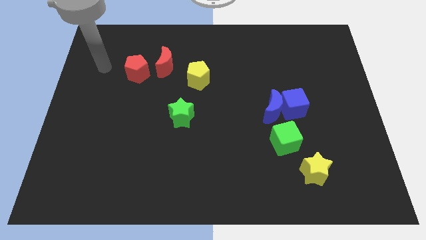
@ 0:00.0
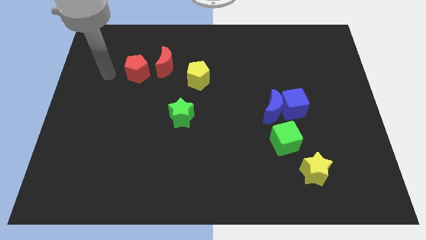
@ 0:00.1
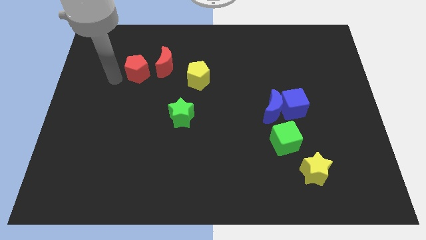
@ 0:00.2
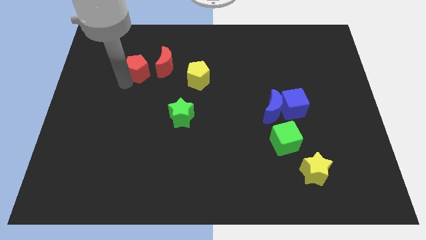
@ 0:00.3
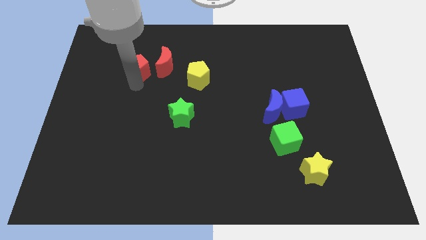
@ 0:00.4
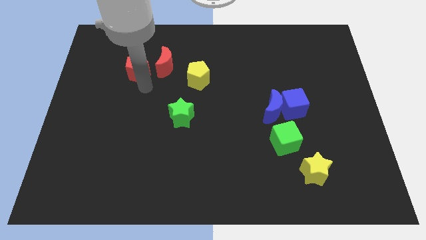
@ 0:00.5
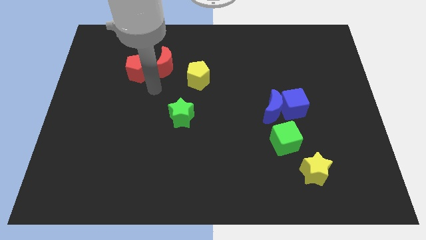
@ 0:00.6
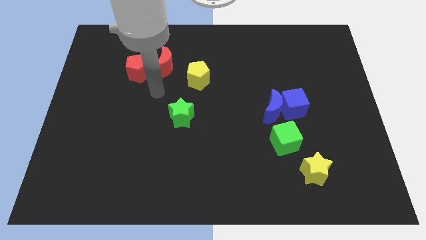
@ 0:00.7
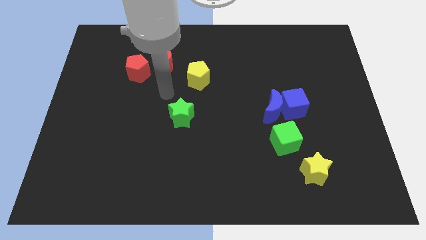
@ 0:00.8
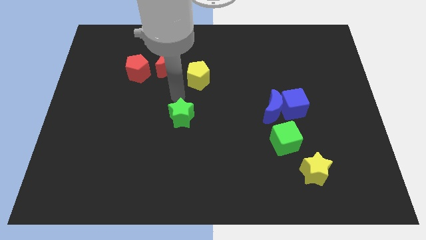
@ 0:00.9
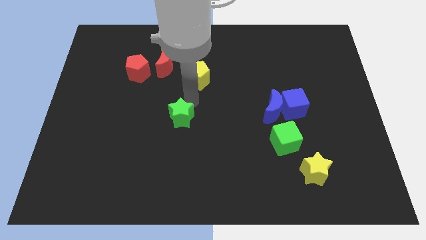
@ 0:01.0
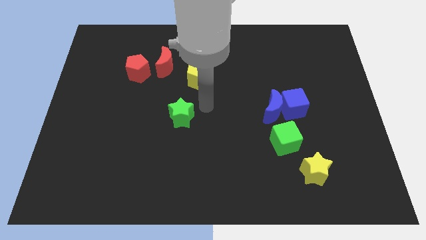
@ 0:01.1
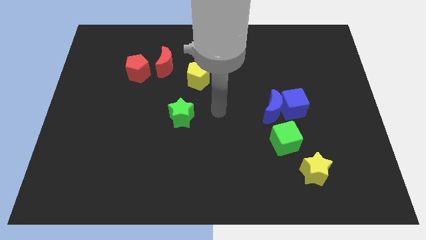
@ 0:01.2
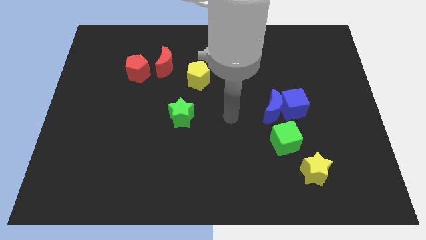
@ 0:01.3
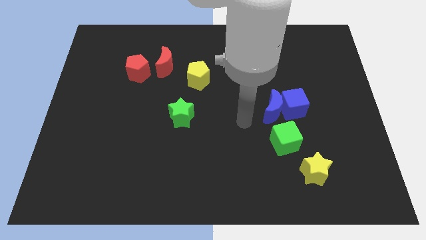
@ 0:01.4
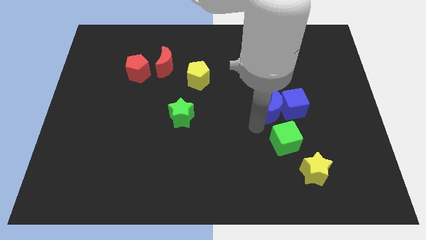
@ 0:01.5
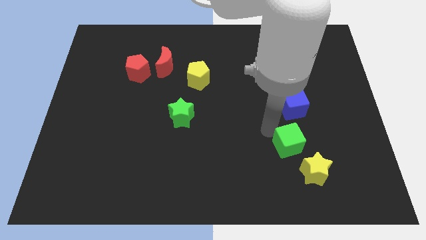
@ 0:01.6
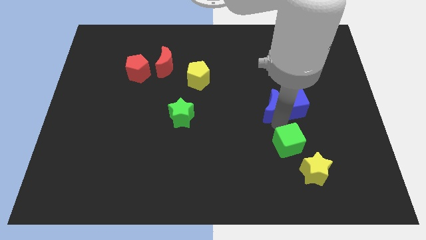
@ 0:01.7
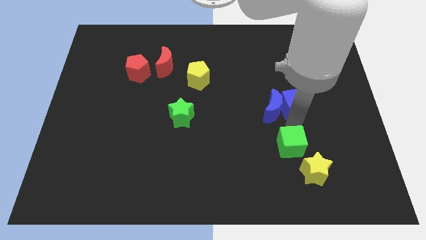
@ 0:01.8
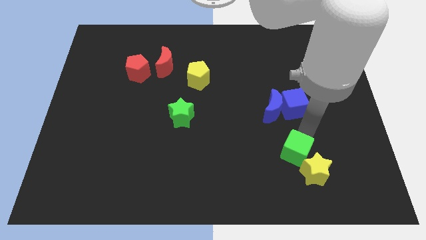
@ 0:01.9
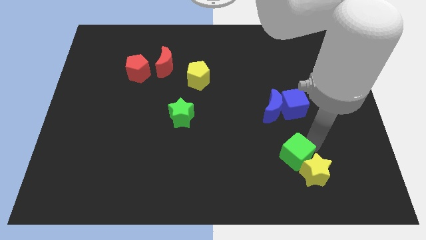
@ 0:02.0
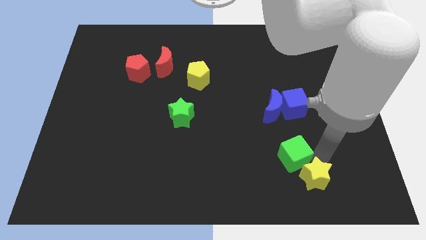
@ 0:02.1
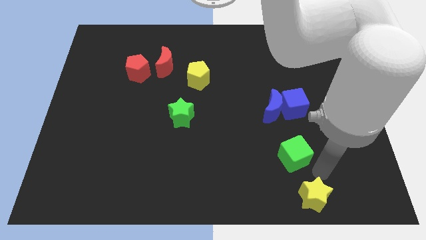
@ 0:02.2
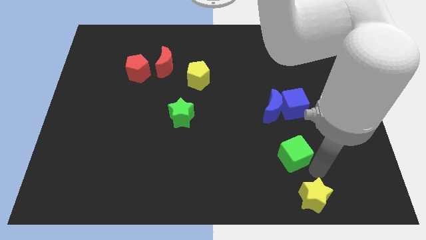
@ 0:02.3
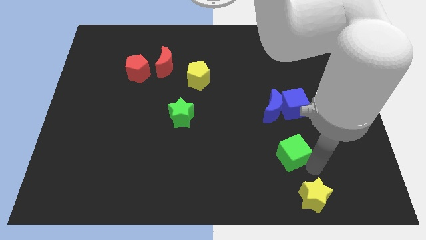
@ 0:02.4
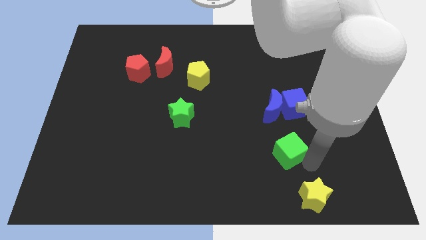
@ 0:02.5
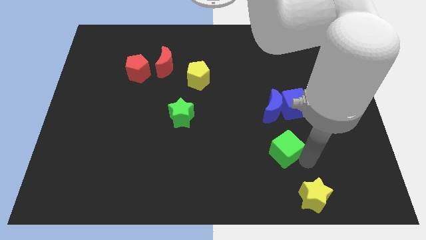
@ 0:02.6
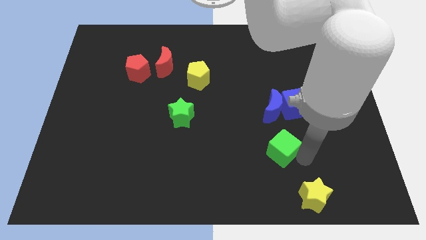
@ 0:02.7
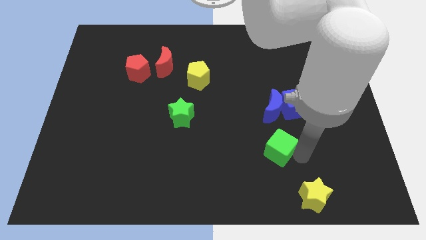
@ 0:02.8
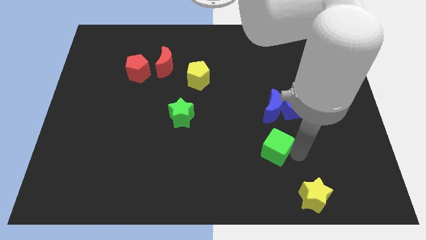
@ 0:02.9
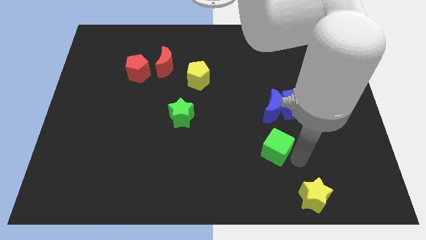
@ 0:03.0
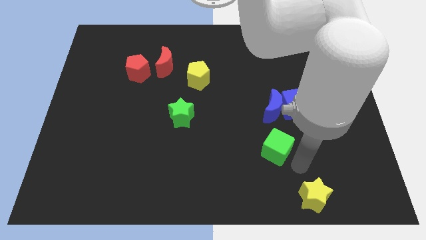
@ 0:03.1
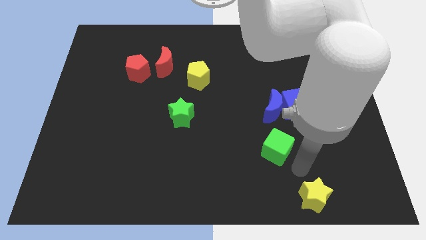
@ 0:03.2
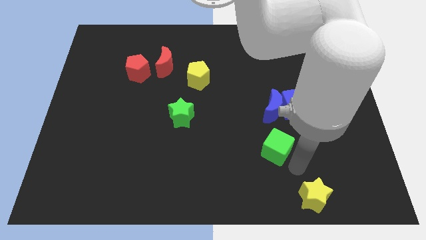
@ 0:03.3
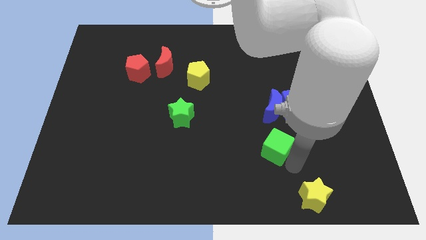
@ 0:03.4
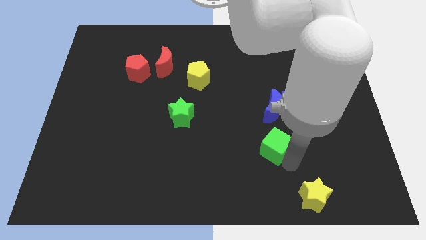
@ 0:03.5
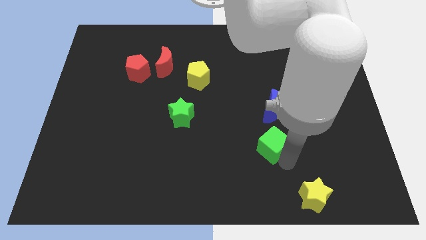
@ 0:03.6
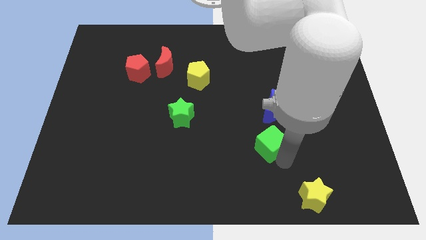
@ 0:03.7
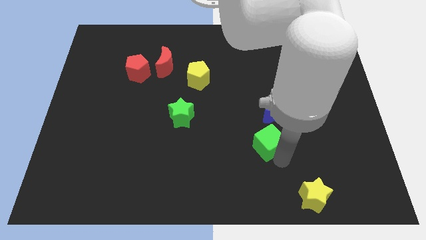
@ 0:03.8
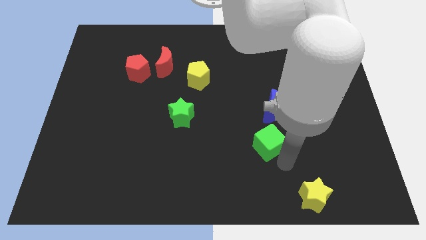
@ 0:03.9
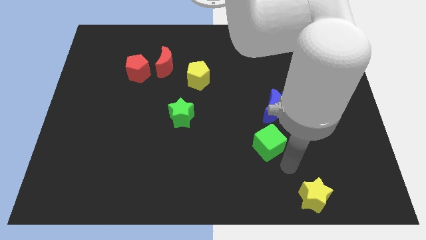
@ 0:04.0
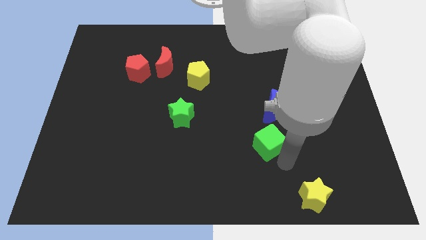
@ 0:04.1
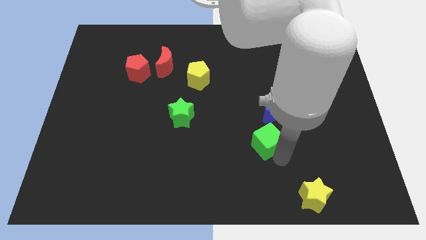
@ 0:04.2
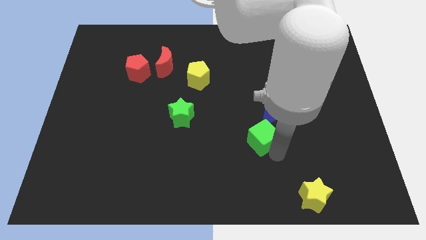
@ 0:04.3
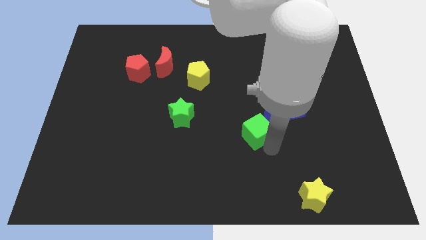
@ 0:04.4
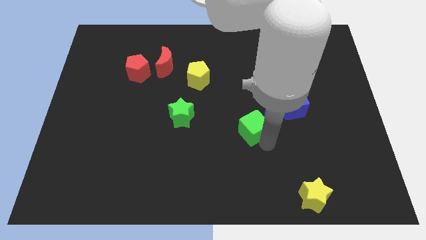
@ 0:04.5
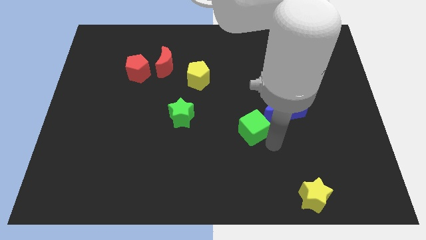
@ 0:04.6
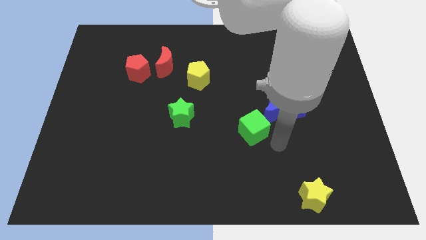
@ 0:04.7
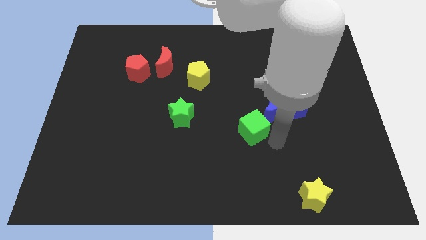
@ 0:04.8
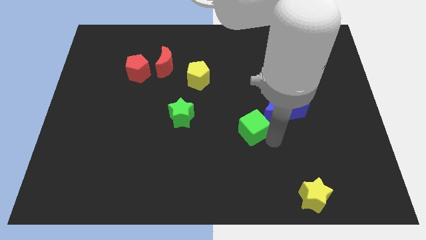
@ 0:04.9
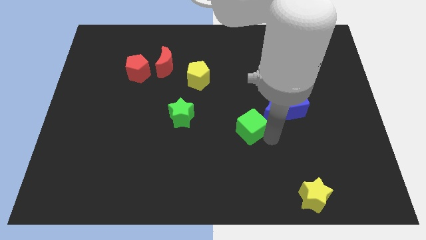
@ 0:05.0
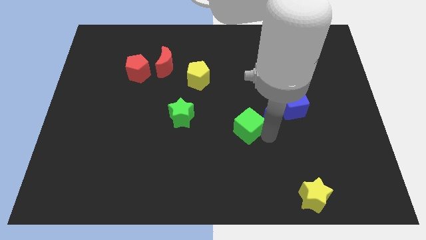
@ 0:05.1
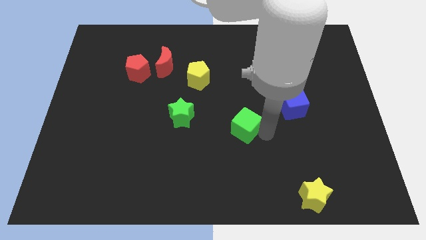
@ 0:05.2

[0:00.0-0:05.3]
move the green cube to the right side of the green star

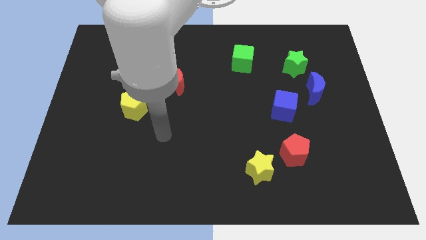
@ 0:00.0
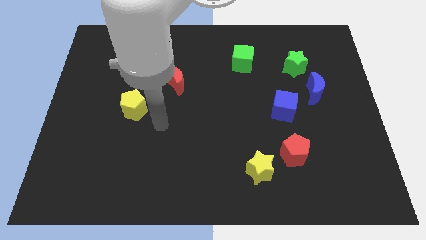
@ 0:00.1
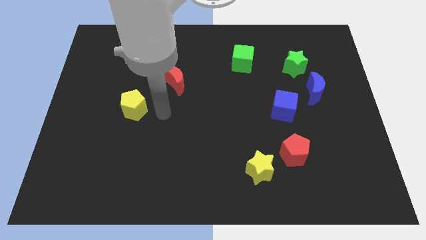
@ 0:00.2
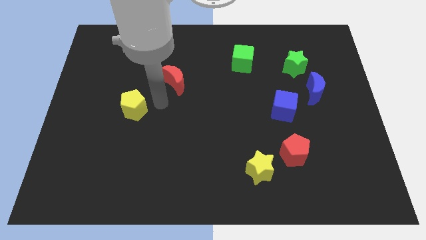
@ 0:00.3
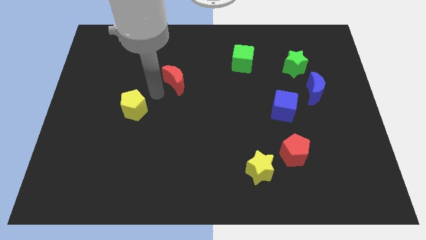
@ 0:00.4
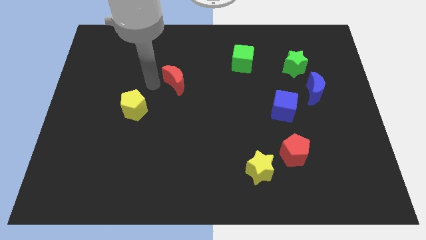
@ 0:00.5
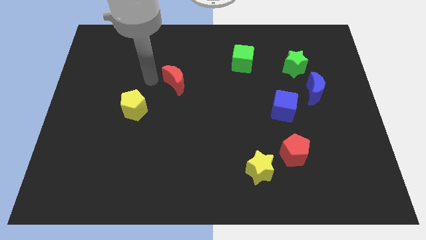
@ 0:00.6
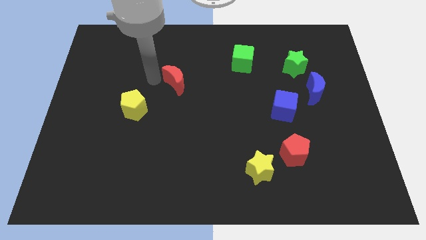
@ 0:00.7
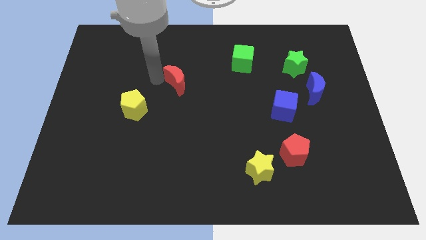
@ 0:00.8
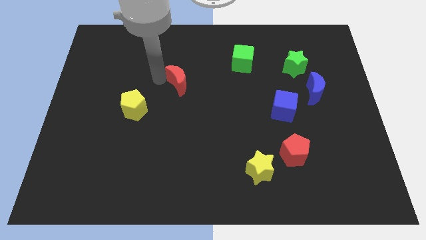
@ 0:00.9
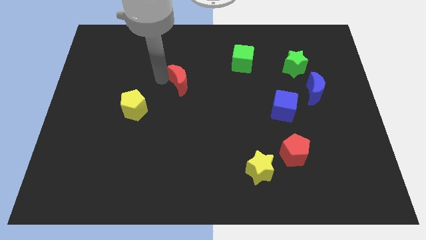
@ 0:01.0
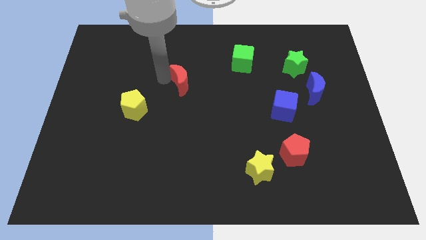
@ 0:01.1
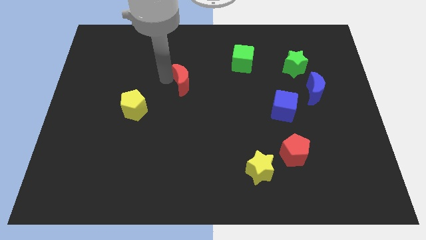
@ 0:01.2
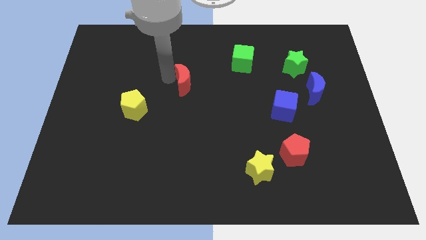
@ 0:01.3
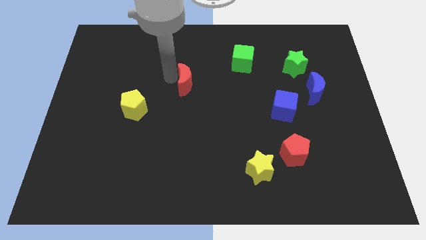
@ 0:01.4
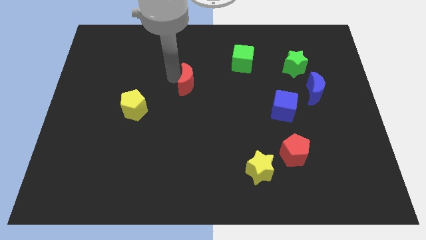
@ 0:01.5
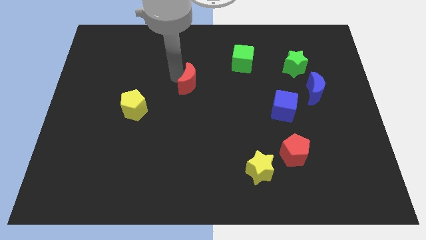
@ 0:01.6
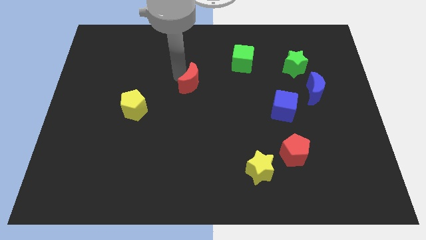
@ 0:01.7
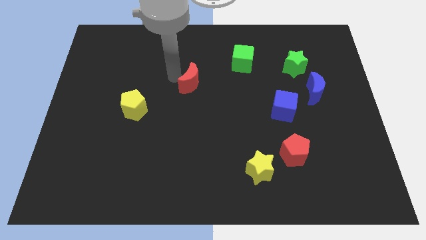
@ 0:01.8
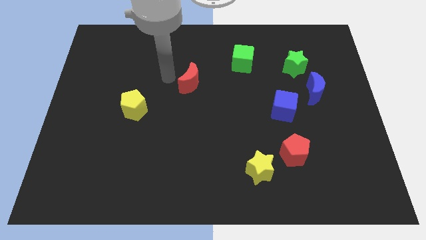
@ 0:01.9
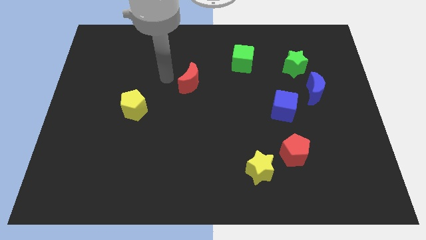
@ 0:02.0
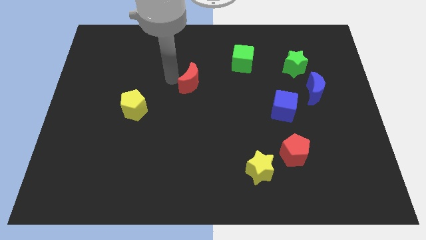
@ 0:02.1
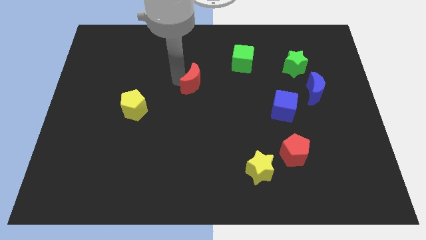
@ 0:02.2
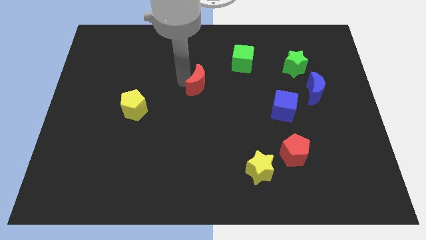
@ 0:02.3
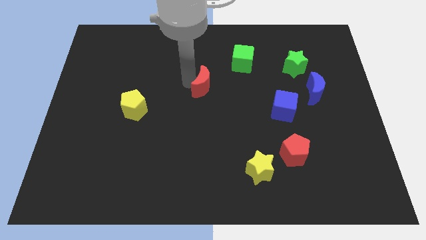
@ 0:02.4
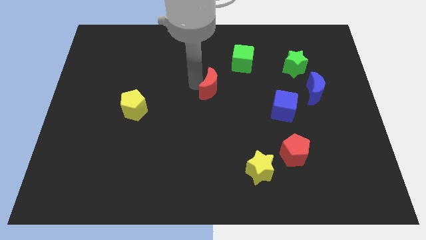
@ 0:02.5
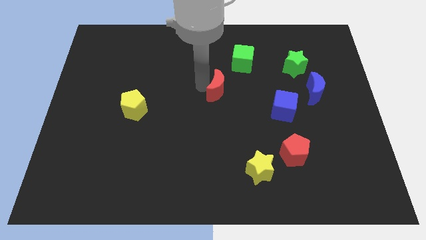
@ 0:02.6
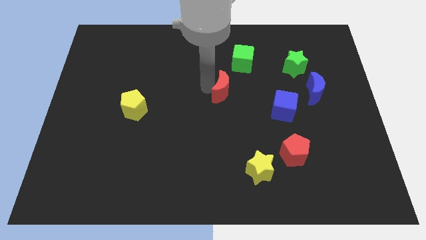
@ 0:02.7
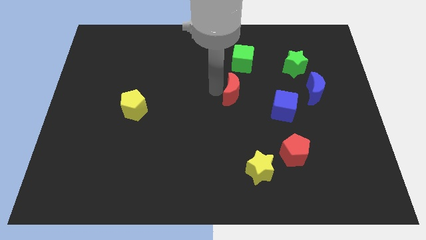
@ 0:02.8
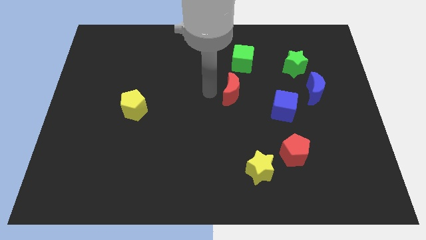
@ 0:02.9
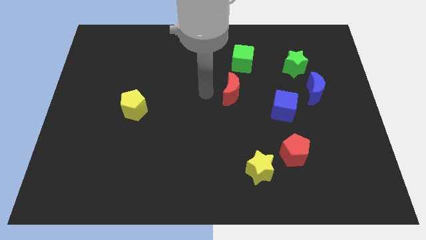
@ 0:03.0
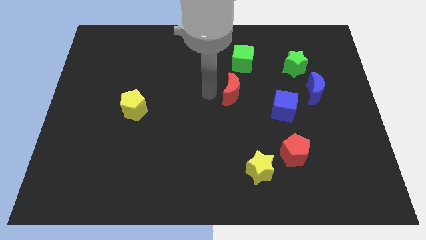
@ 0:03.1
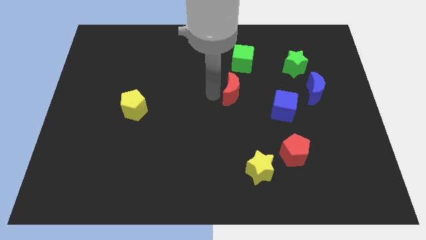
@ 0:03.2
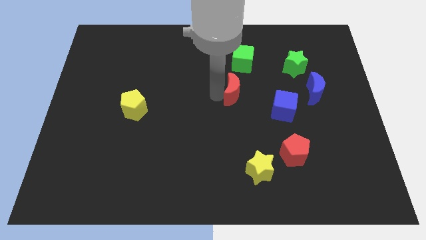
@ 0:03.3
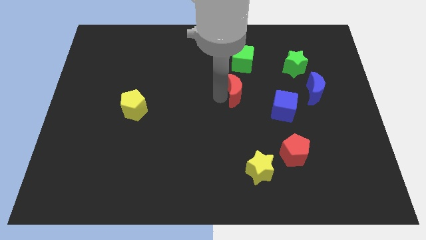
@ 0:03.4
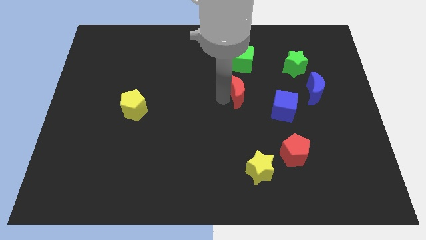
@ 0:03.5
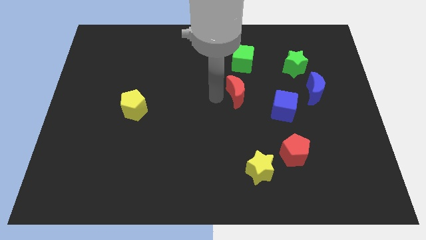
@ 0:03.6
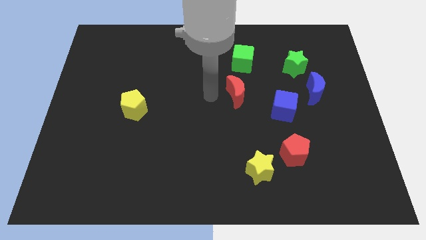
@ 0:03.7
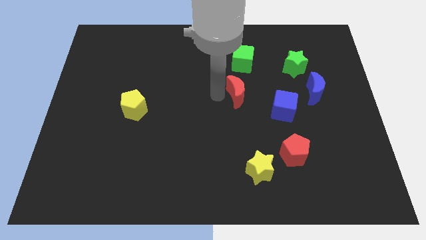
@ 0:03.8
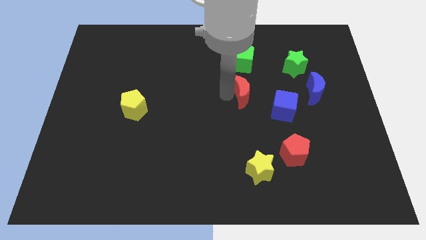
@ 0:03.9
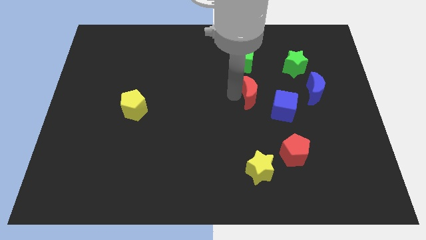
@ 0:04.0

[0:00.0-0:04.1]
move the red moon left of the blue moon
